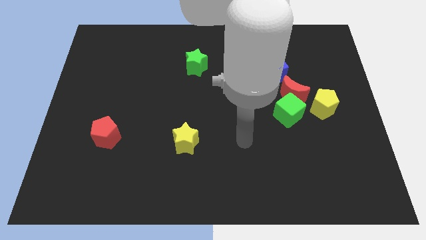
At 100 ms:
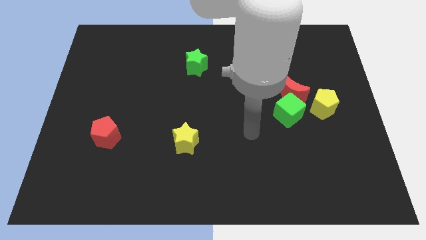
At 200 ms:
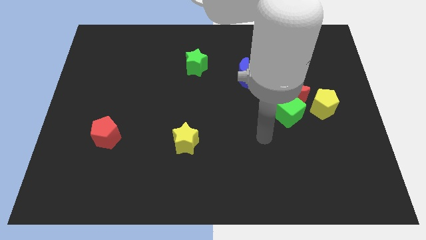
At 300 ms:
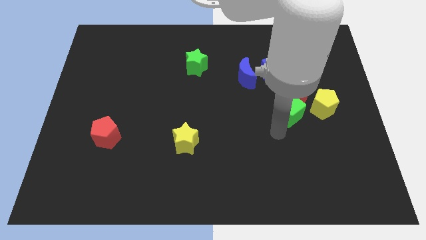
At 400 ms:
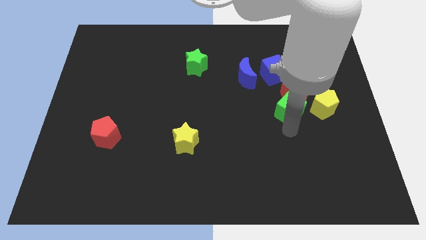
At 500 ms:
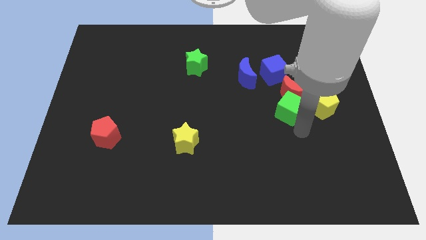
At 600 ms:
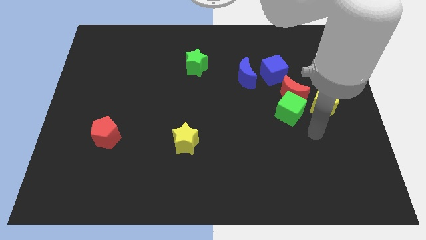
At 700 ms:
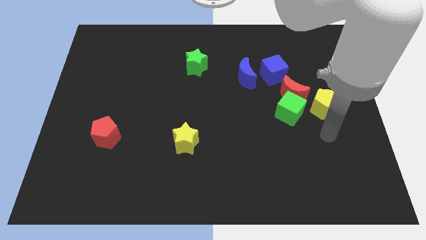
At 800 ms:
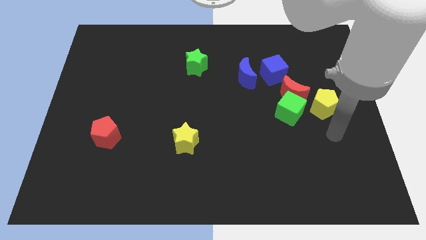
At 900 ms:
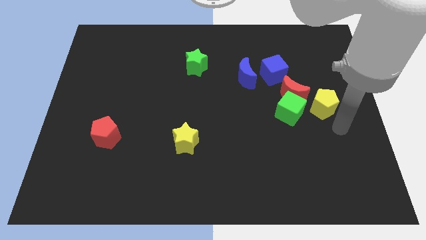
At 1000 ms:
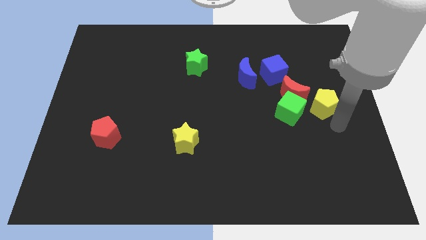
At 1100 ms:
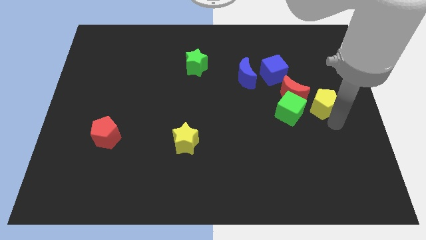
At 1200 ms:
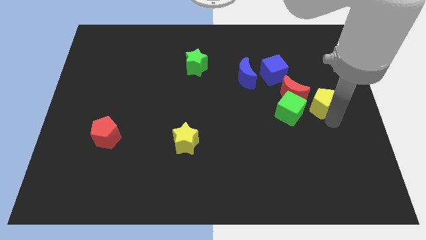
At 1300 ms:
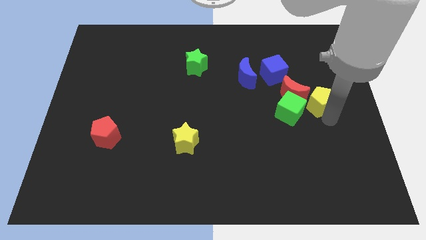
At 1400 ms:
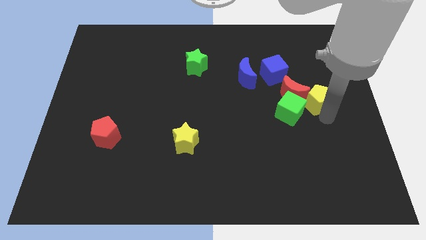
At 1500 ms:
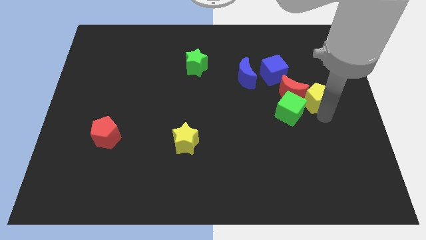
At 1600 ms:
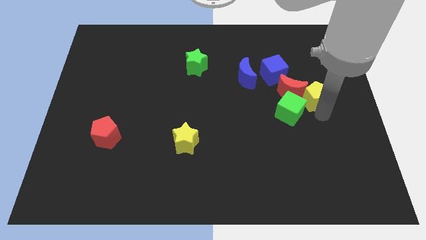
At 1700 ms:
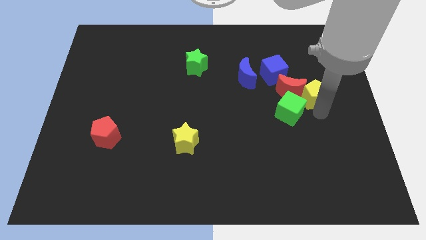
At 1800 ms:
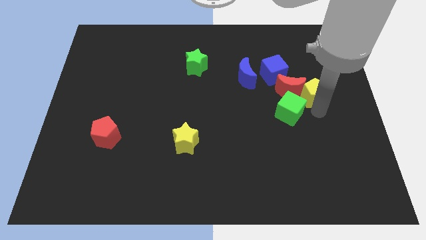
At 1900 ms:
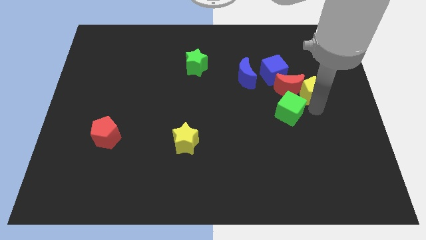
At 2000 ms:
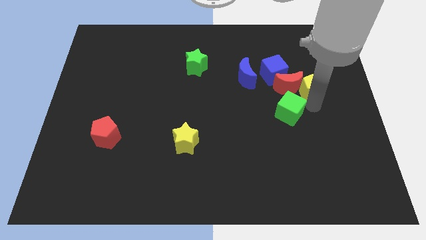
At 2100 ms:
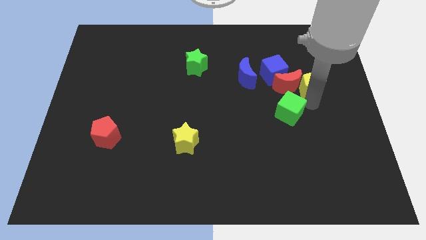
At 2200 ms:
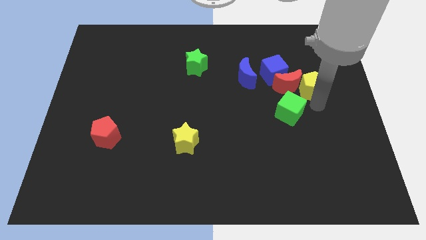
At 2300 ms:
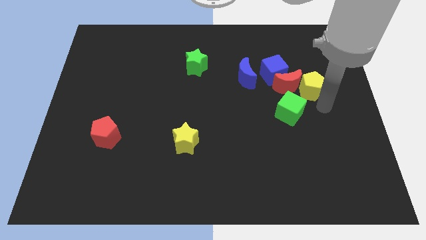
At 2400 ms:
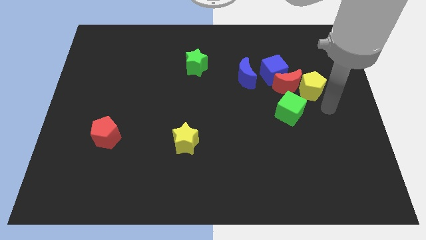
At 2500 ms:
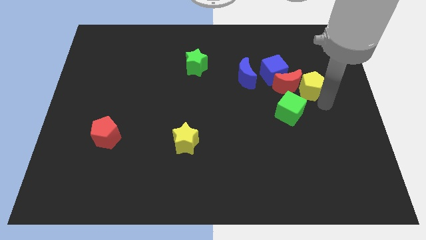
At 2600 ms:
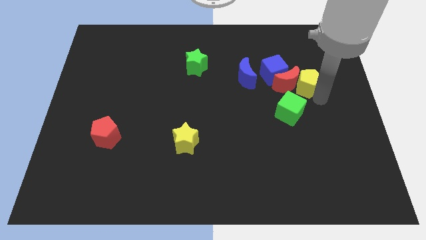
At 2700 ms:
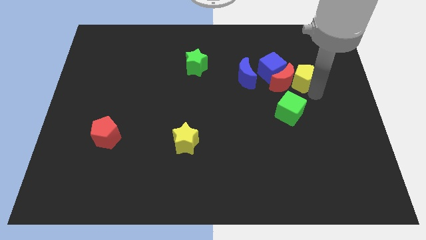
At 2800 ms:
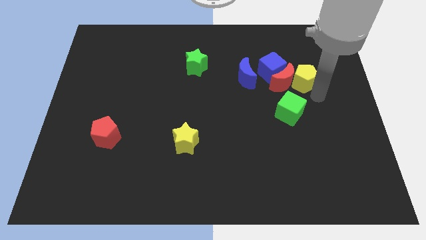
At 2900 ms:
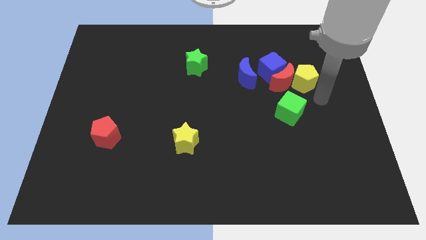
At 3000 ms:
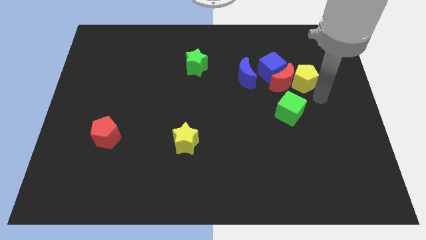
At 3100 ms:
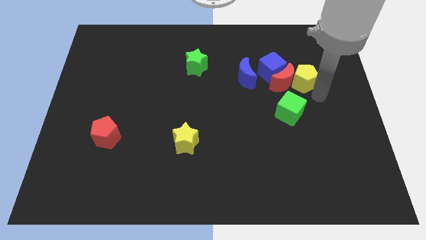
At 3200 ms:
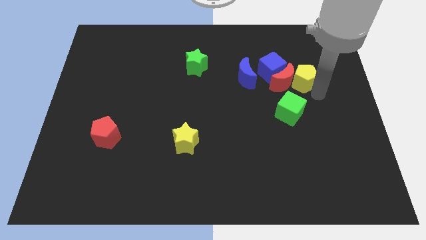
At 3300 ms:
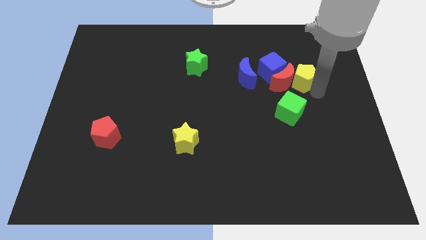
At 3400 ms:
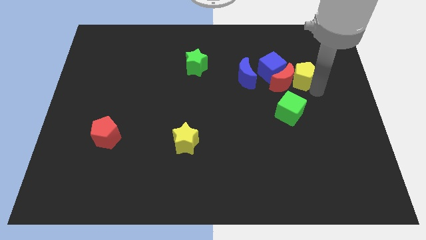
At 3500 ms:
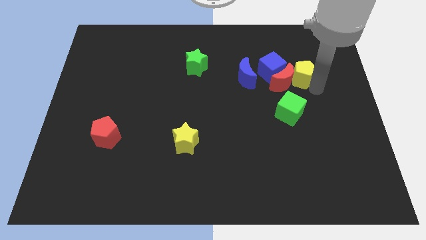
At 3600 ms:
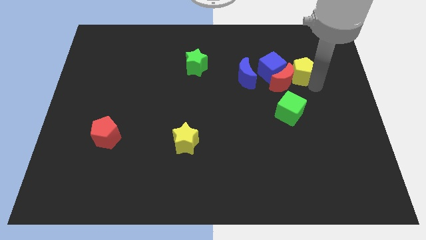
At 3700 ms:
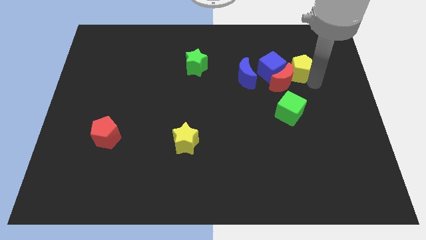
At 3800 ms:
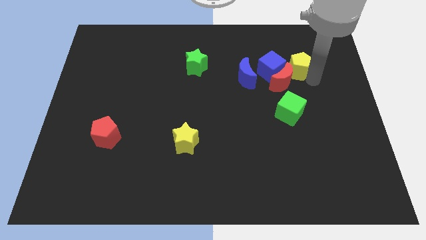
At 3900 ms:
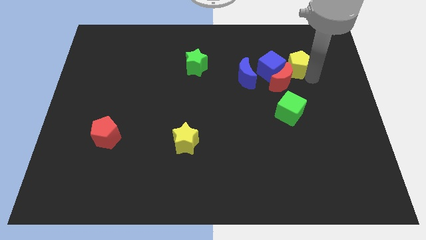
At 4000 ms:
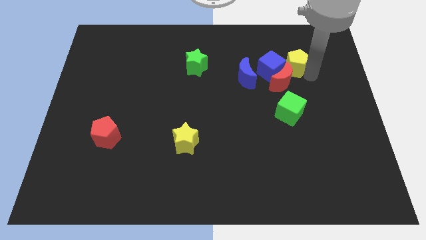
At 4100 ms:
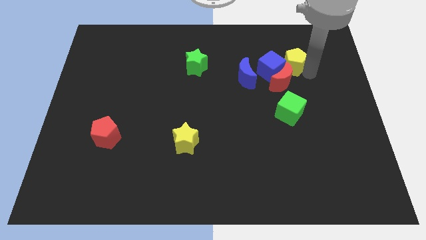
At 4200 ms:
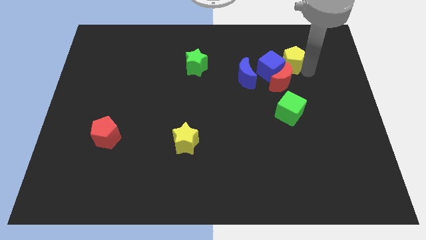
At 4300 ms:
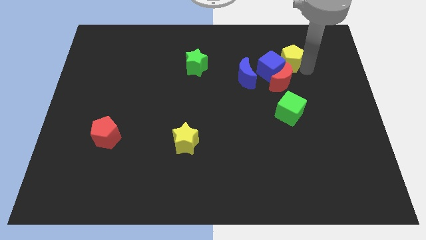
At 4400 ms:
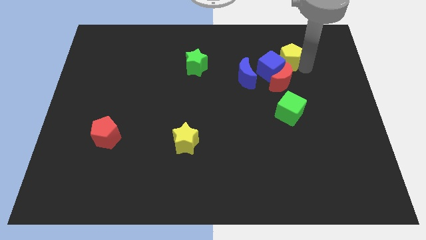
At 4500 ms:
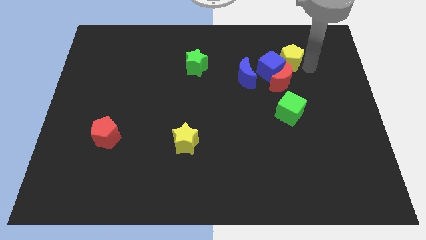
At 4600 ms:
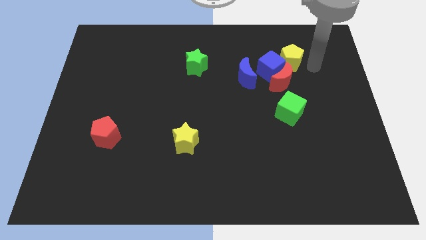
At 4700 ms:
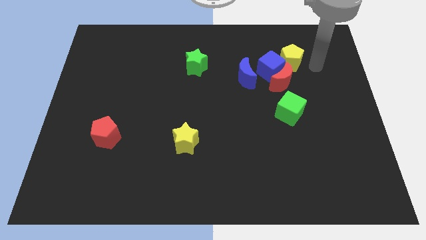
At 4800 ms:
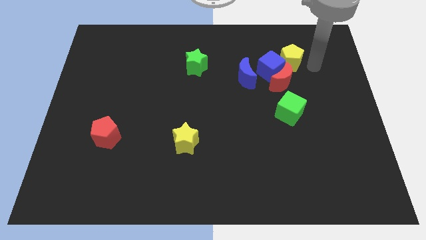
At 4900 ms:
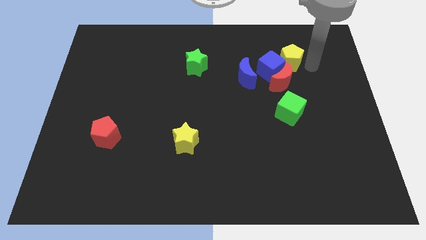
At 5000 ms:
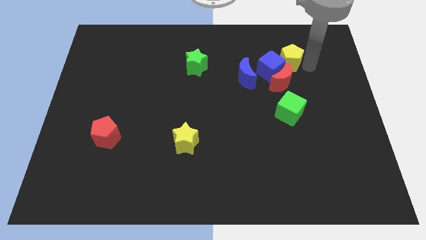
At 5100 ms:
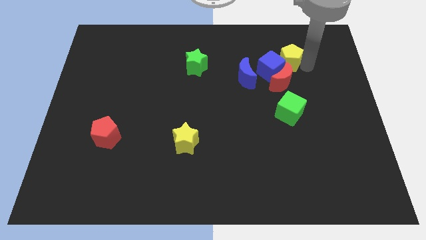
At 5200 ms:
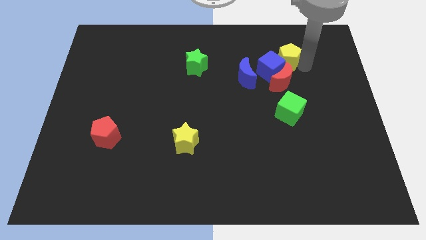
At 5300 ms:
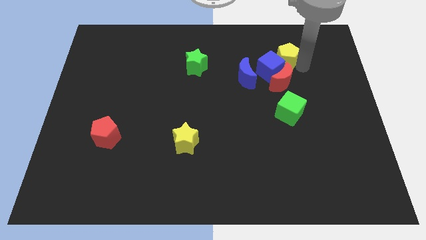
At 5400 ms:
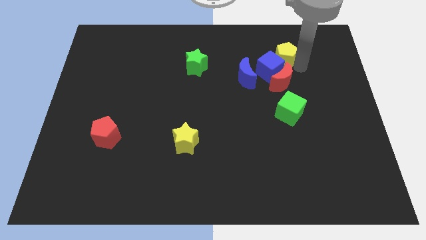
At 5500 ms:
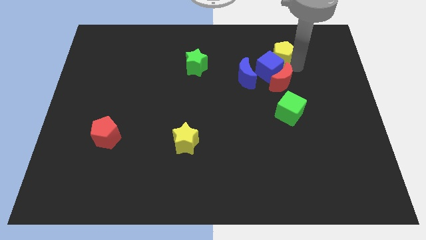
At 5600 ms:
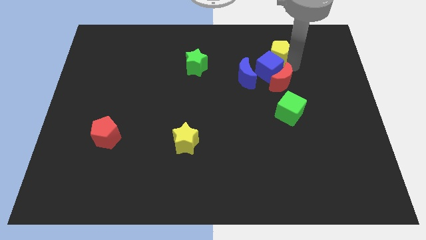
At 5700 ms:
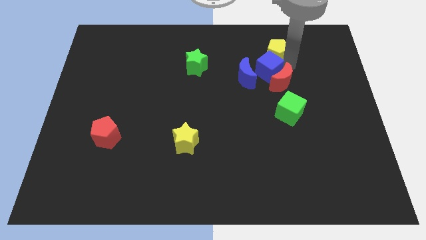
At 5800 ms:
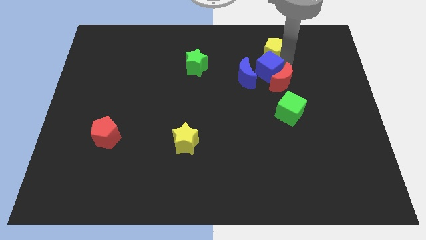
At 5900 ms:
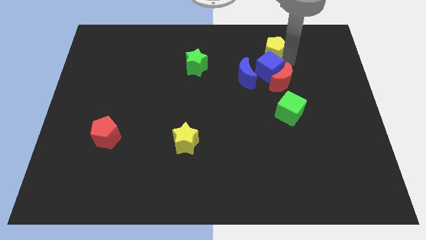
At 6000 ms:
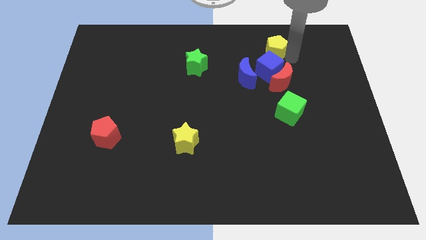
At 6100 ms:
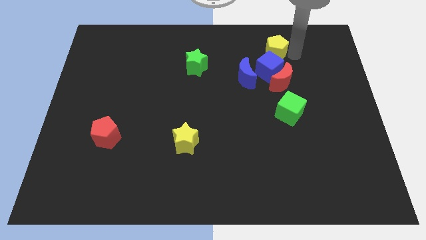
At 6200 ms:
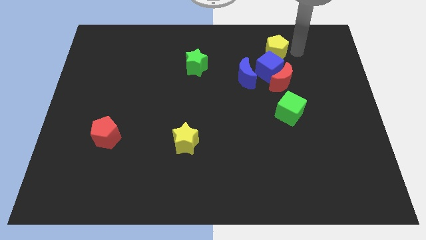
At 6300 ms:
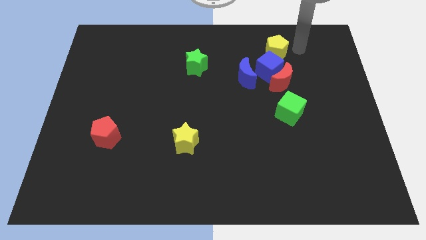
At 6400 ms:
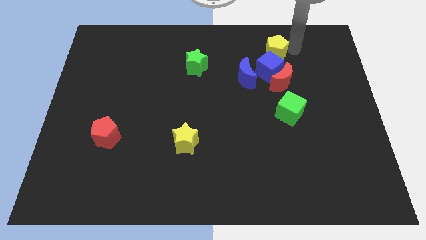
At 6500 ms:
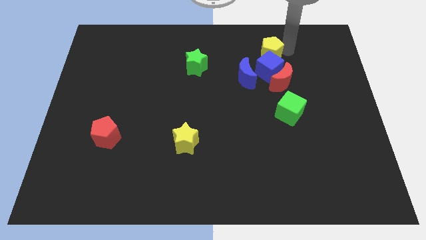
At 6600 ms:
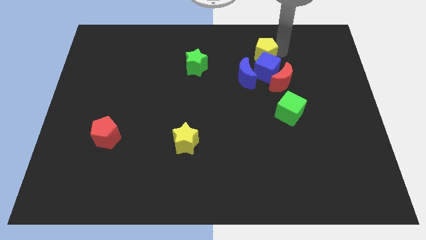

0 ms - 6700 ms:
push the yellow pentagon diagonally up and to the left of the blue cube

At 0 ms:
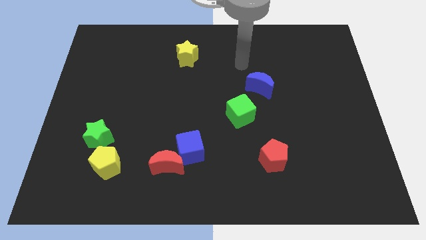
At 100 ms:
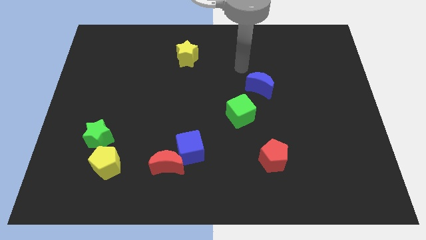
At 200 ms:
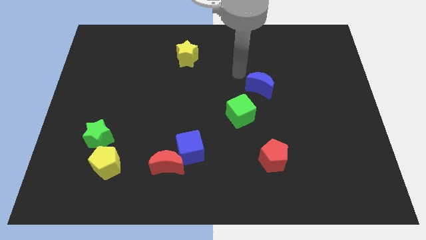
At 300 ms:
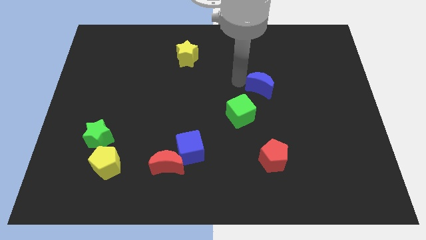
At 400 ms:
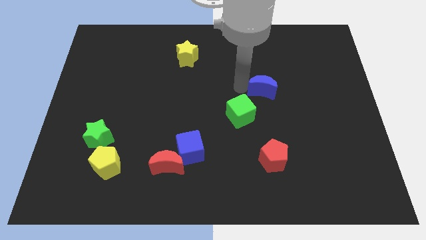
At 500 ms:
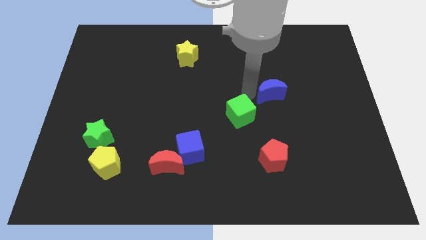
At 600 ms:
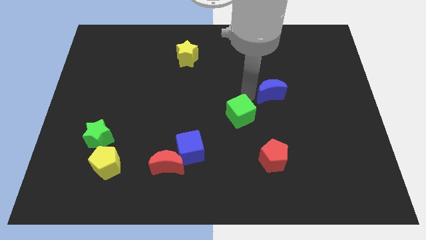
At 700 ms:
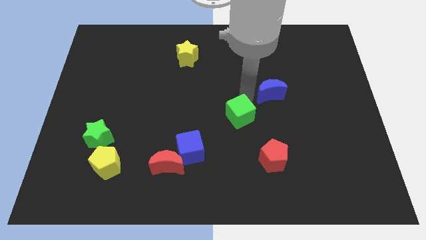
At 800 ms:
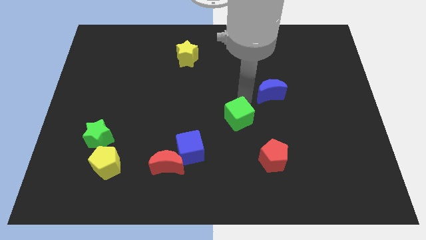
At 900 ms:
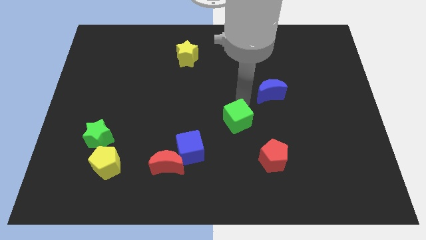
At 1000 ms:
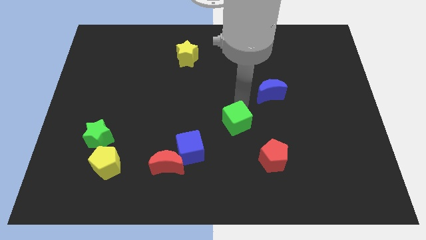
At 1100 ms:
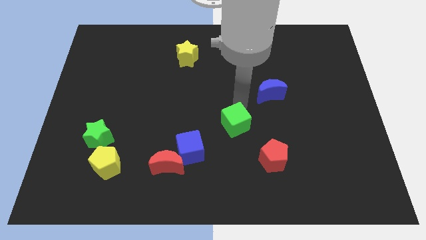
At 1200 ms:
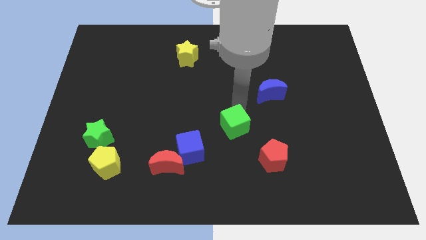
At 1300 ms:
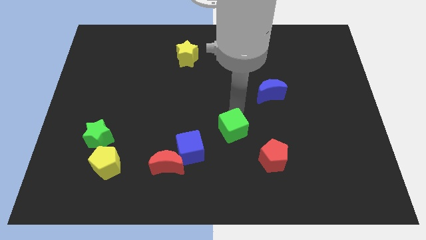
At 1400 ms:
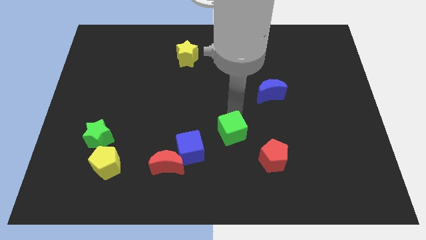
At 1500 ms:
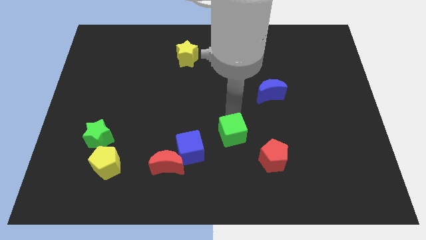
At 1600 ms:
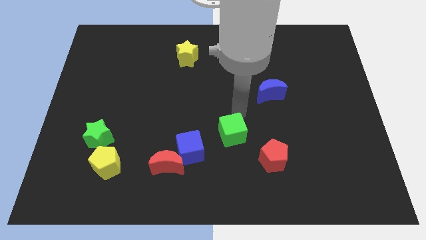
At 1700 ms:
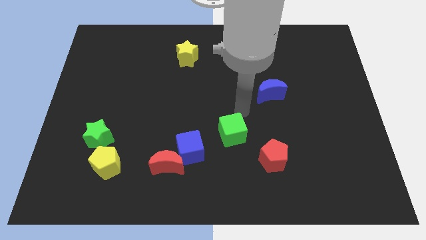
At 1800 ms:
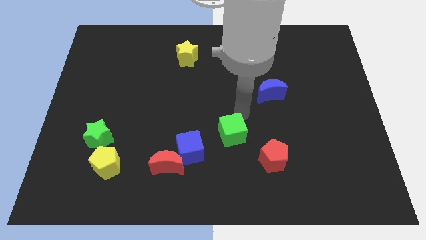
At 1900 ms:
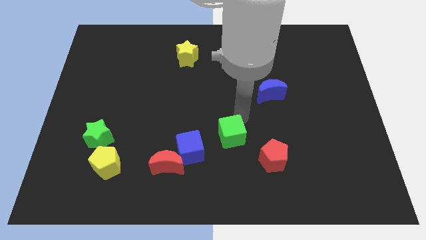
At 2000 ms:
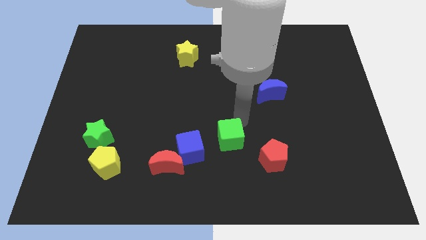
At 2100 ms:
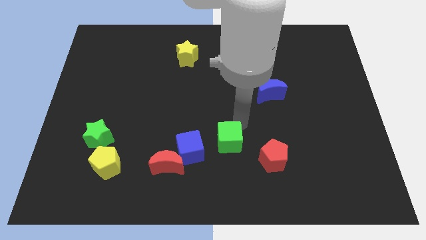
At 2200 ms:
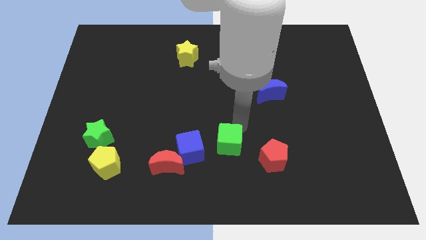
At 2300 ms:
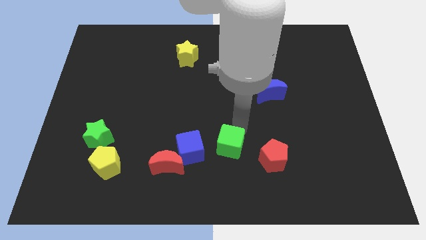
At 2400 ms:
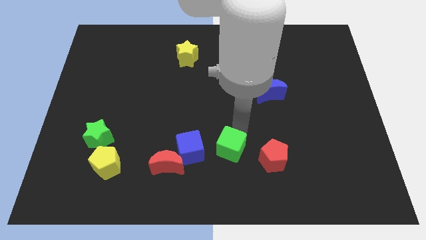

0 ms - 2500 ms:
slide the green cube to the right side of the red moon
